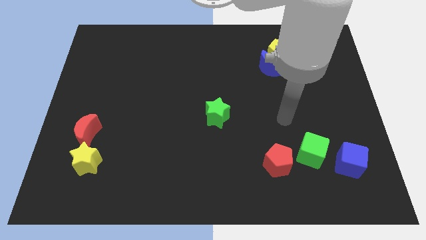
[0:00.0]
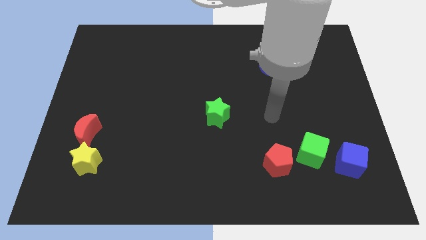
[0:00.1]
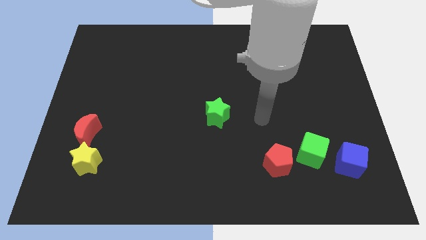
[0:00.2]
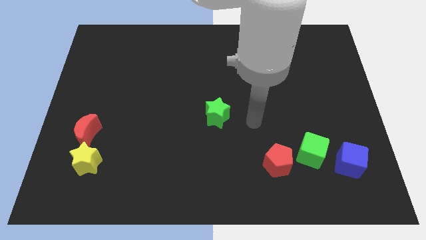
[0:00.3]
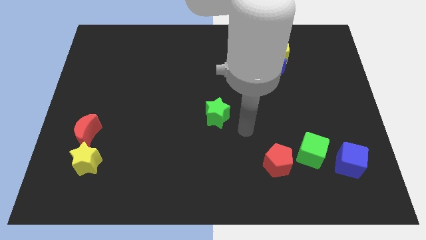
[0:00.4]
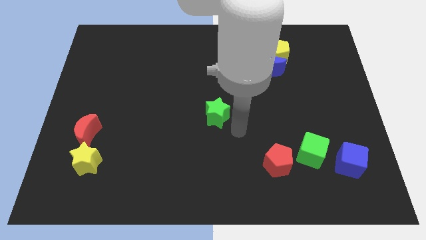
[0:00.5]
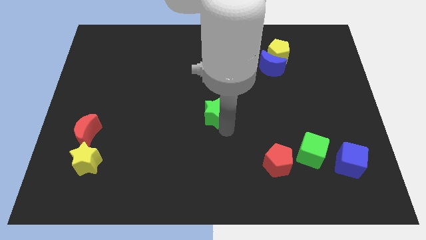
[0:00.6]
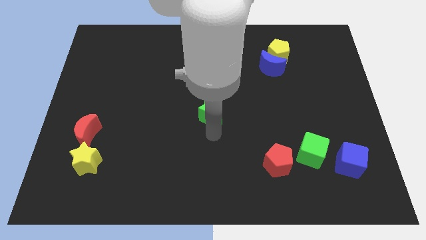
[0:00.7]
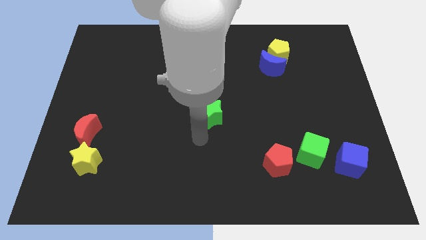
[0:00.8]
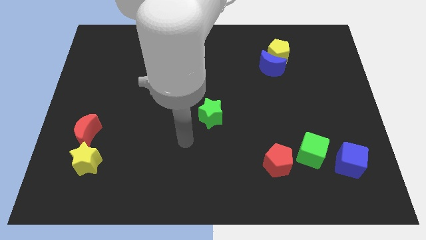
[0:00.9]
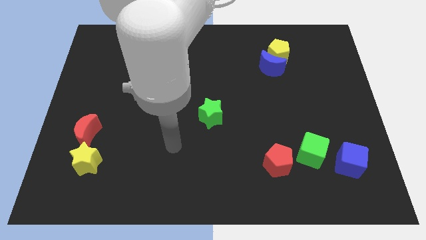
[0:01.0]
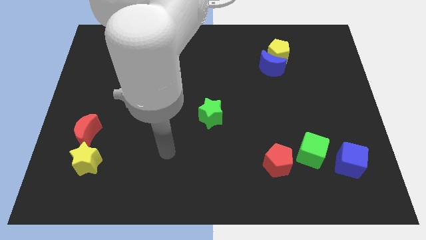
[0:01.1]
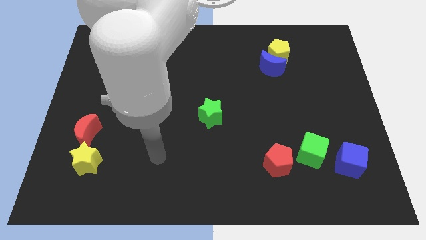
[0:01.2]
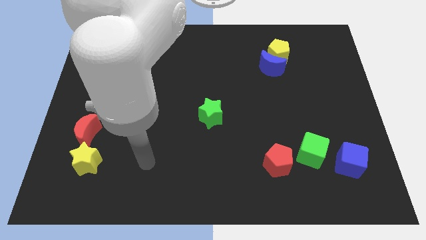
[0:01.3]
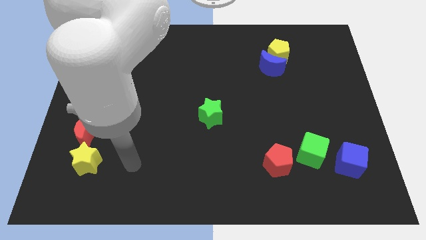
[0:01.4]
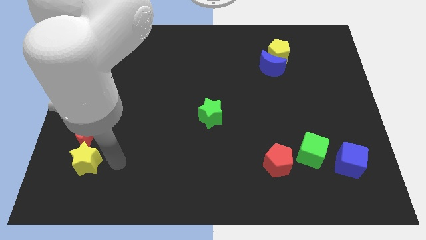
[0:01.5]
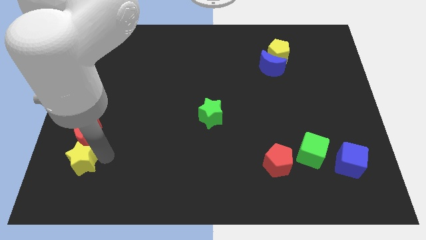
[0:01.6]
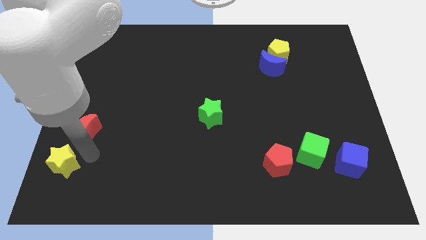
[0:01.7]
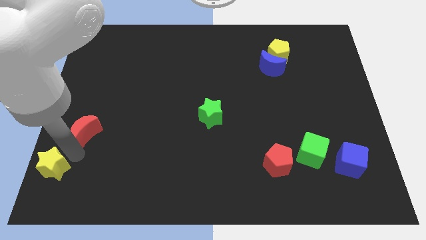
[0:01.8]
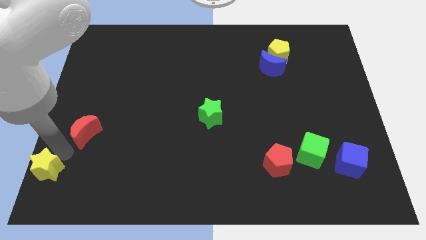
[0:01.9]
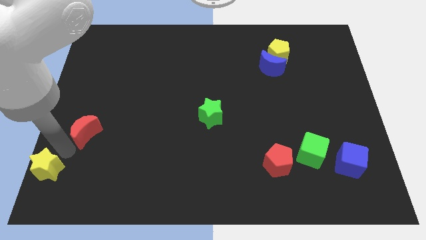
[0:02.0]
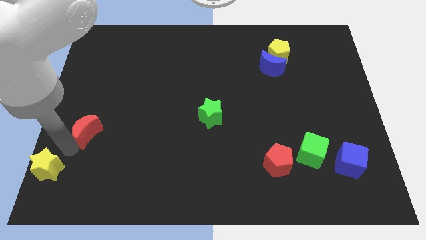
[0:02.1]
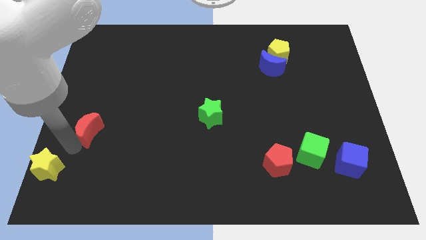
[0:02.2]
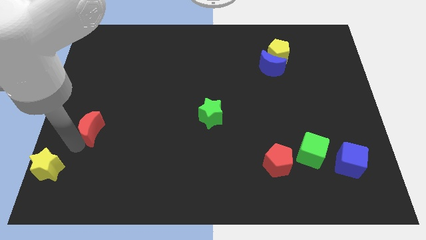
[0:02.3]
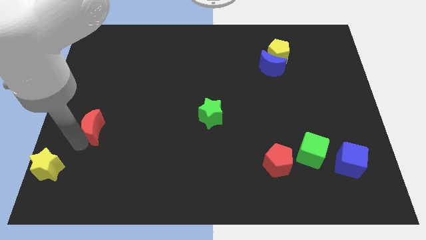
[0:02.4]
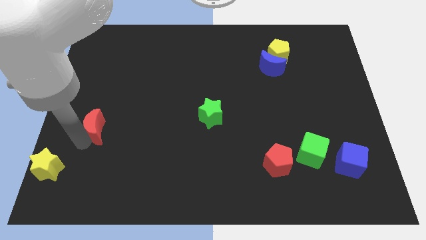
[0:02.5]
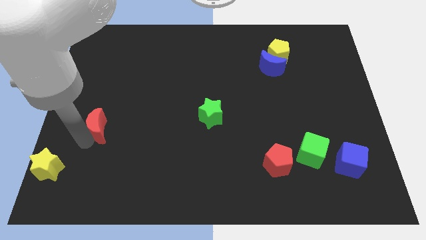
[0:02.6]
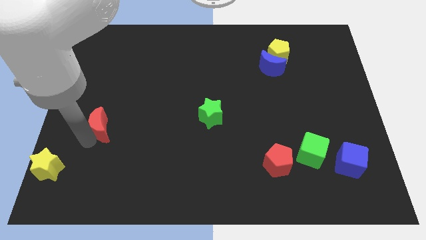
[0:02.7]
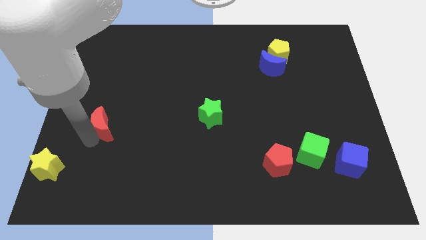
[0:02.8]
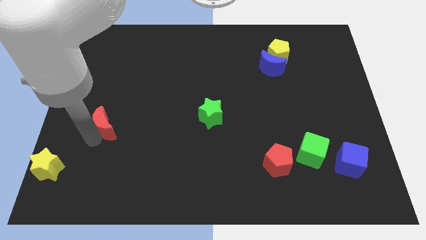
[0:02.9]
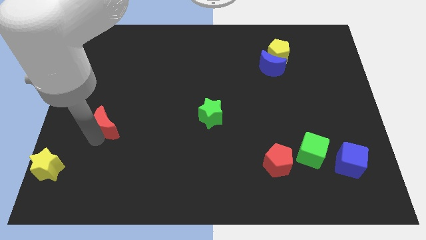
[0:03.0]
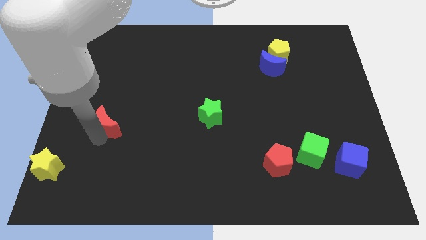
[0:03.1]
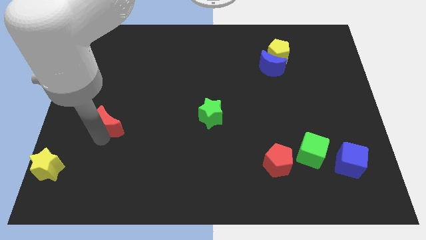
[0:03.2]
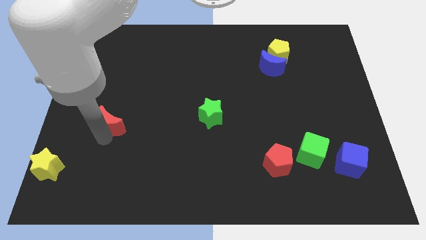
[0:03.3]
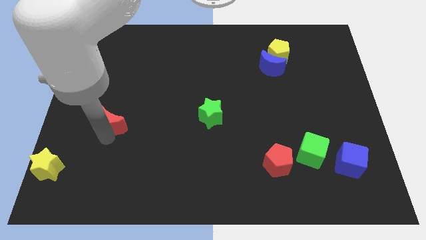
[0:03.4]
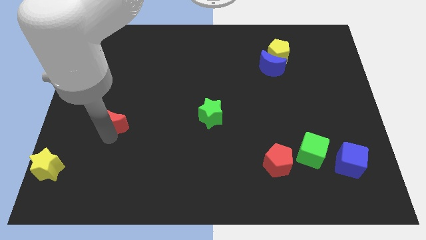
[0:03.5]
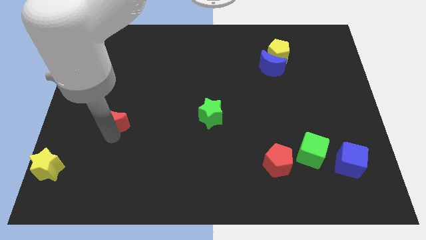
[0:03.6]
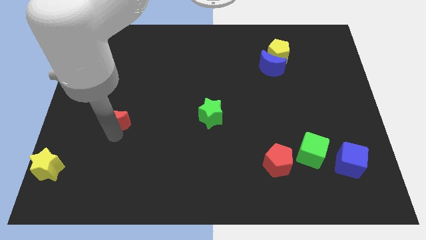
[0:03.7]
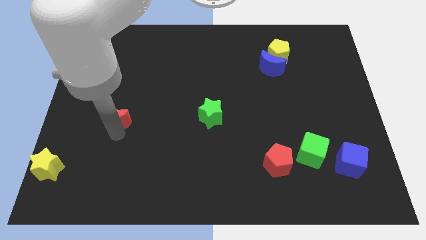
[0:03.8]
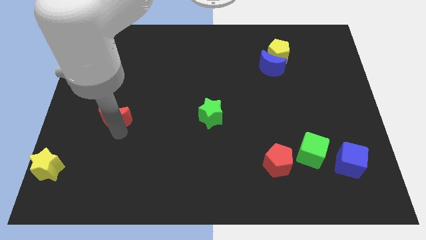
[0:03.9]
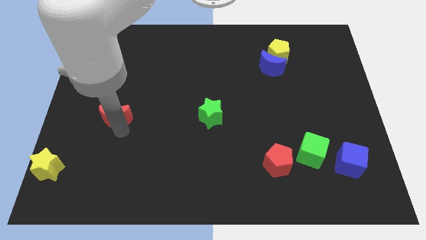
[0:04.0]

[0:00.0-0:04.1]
slightly move the red moon up and then to the right

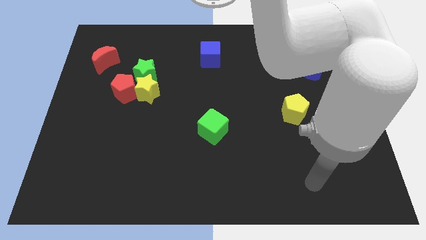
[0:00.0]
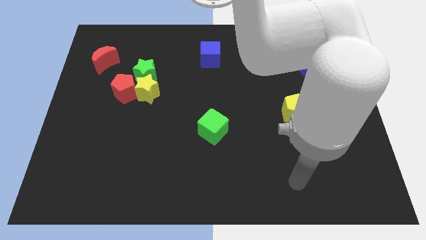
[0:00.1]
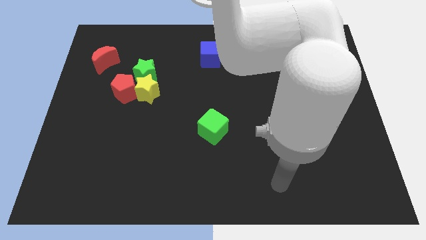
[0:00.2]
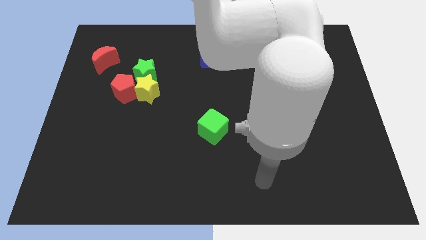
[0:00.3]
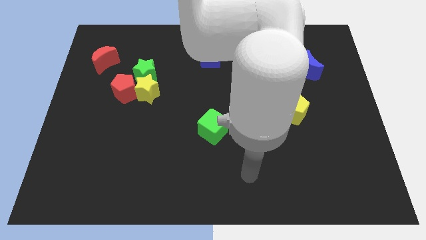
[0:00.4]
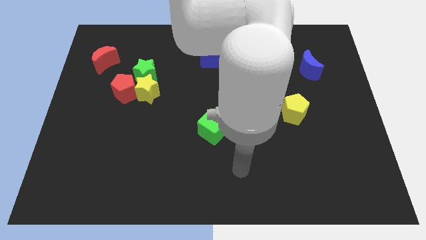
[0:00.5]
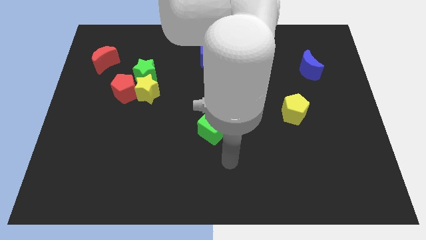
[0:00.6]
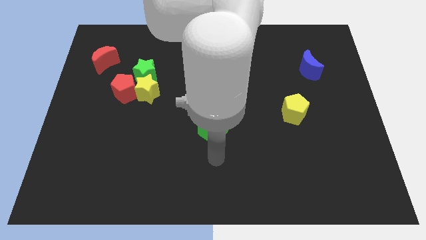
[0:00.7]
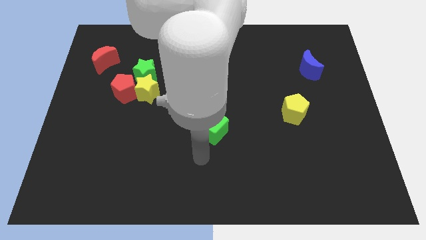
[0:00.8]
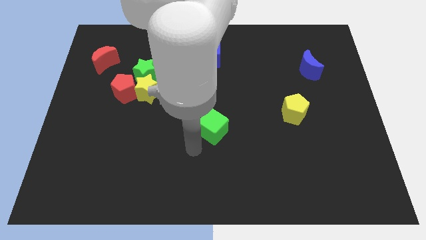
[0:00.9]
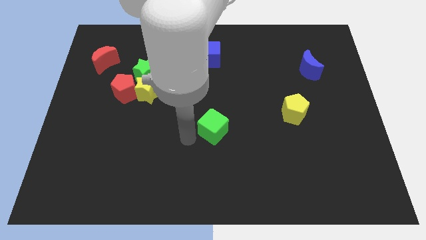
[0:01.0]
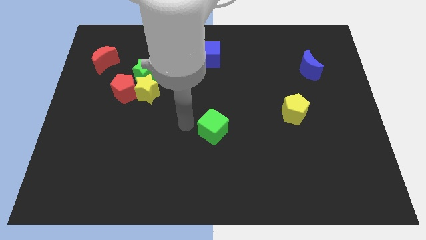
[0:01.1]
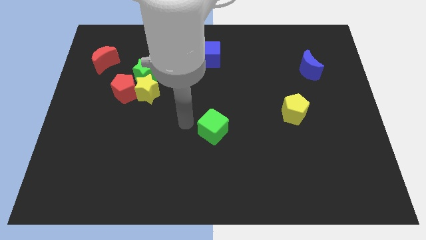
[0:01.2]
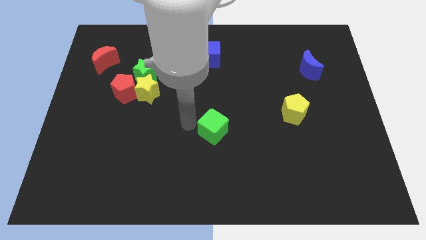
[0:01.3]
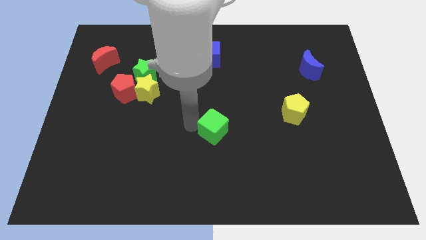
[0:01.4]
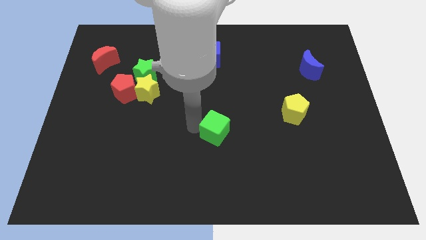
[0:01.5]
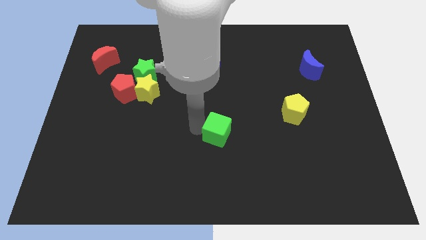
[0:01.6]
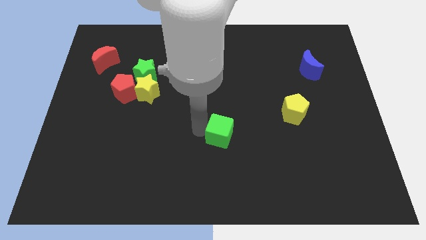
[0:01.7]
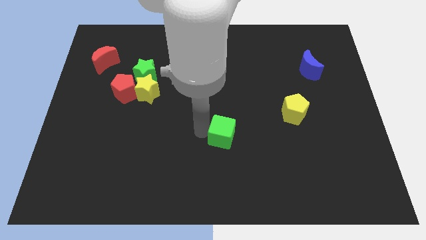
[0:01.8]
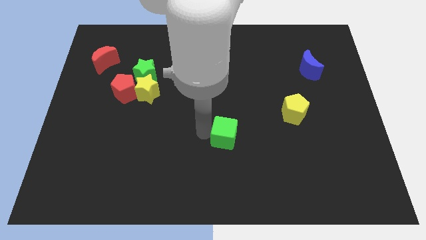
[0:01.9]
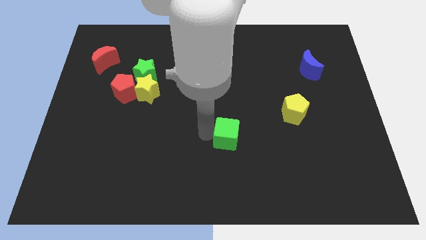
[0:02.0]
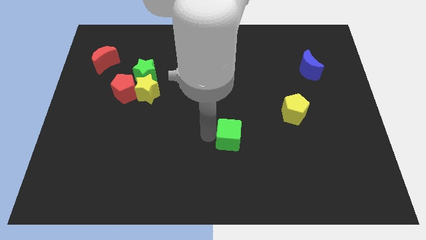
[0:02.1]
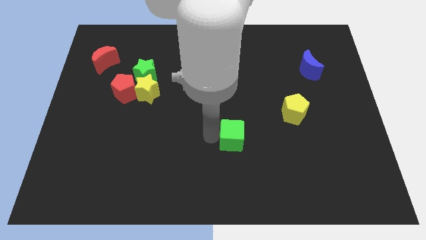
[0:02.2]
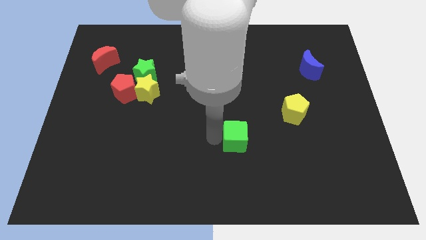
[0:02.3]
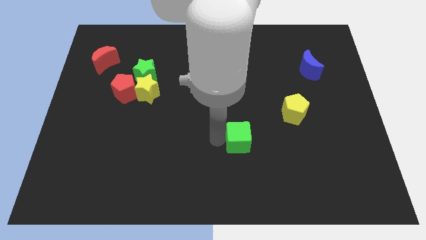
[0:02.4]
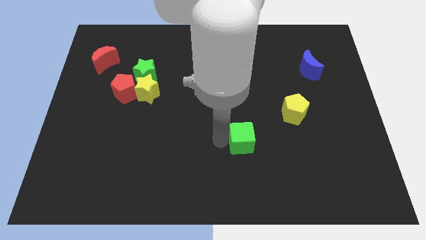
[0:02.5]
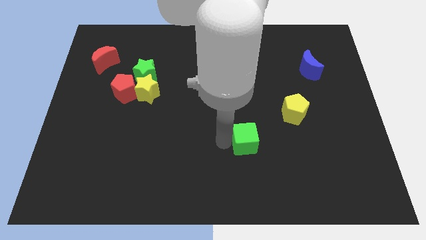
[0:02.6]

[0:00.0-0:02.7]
push the green cube a bit right

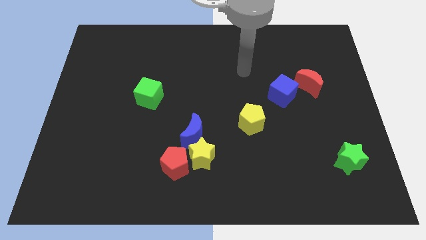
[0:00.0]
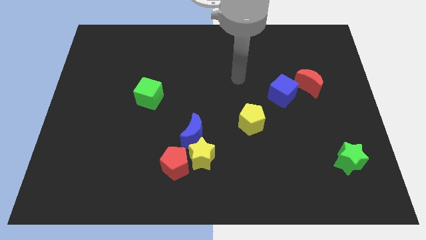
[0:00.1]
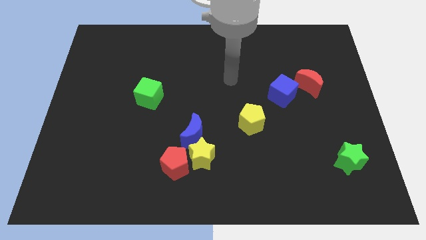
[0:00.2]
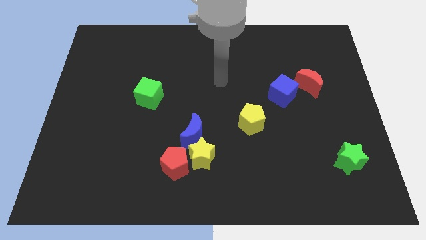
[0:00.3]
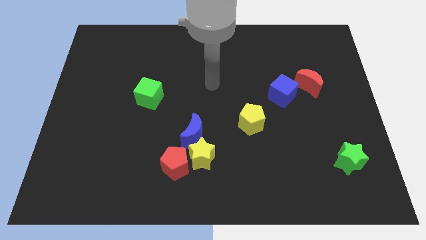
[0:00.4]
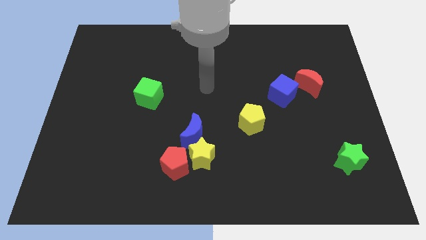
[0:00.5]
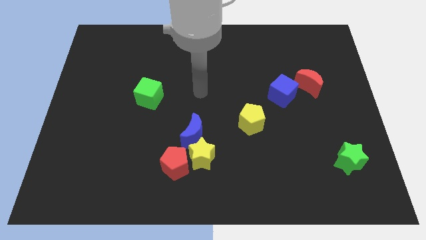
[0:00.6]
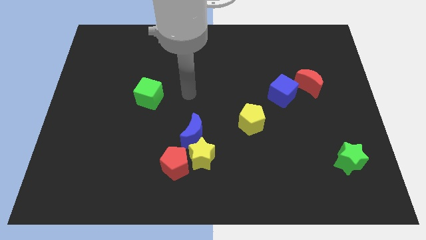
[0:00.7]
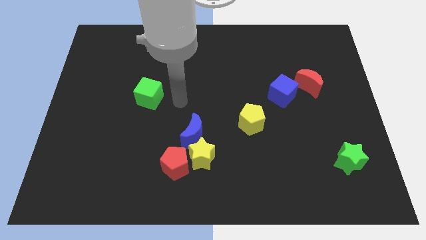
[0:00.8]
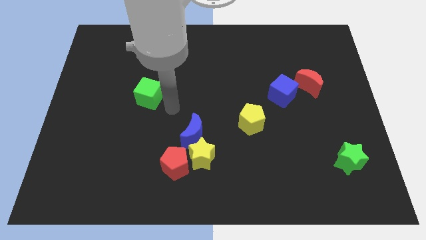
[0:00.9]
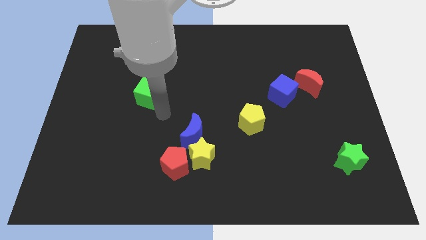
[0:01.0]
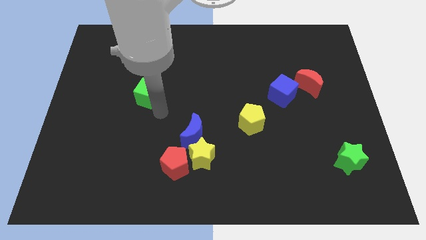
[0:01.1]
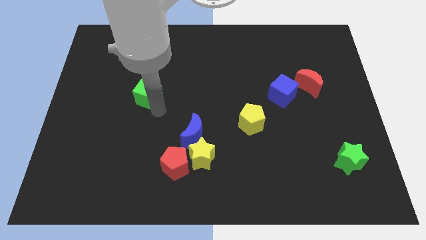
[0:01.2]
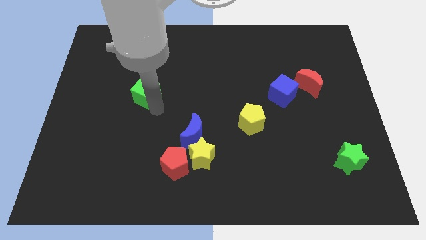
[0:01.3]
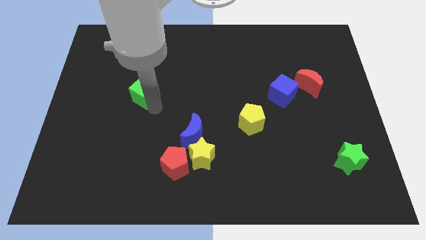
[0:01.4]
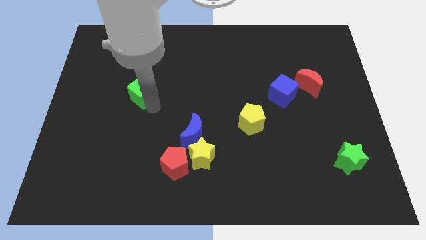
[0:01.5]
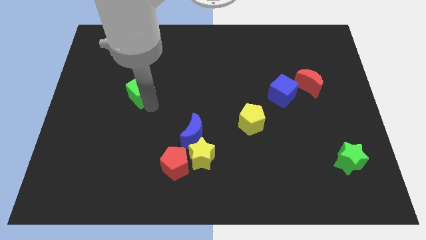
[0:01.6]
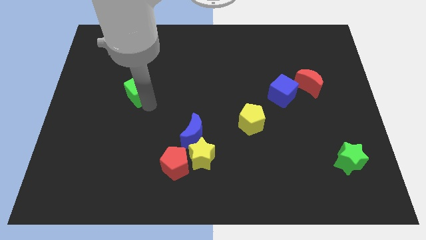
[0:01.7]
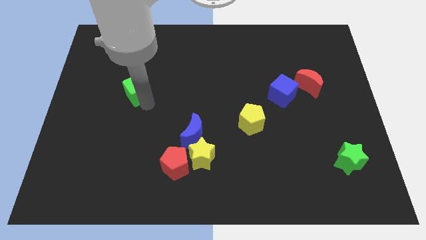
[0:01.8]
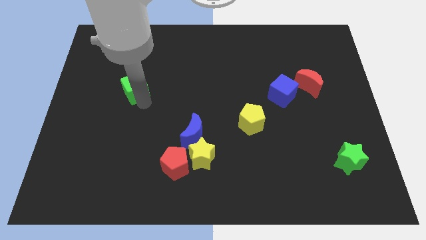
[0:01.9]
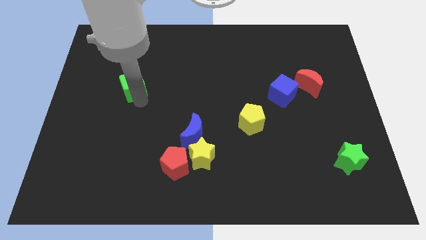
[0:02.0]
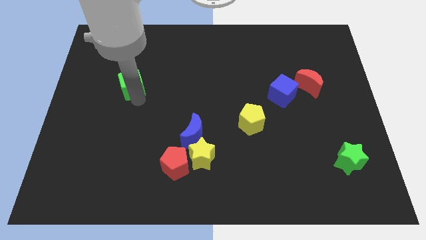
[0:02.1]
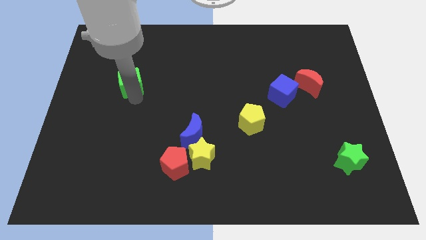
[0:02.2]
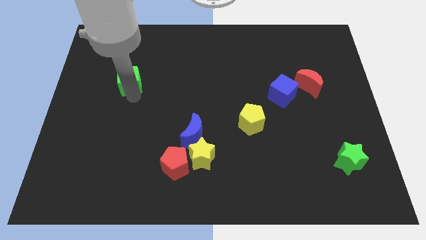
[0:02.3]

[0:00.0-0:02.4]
slide the green cube upwards and left slightly
